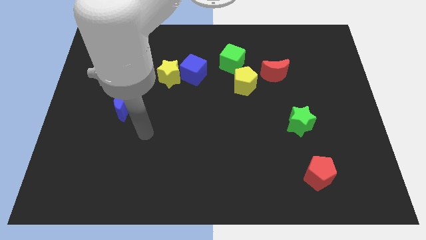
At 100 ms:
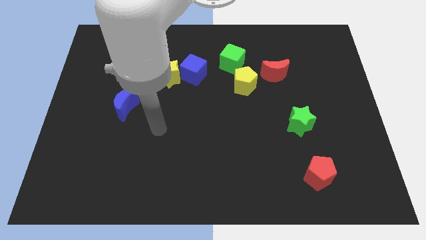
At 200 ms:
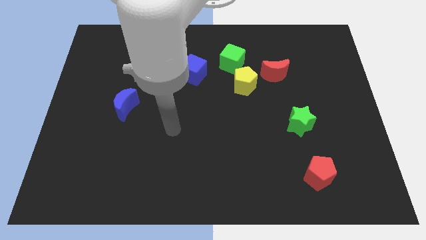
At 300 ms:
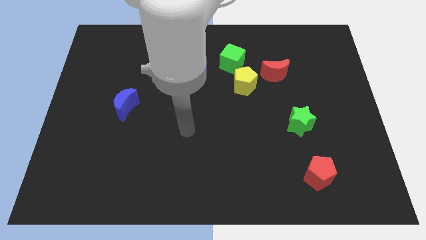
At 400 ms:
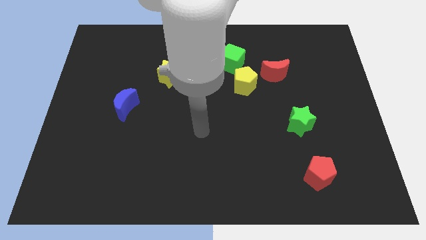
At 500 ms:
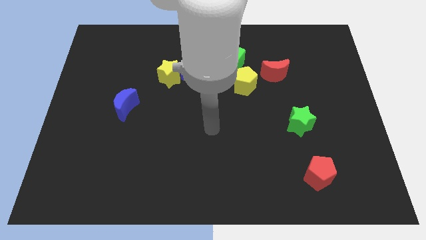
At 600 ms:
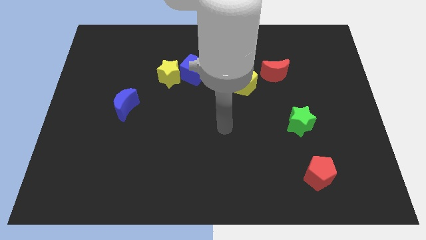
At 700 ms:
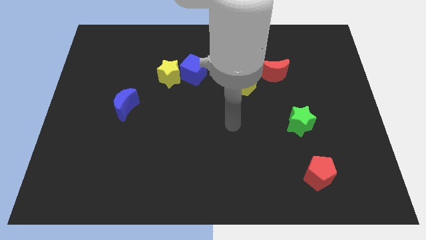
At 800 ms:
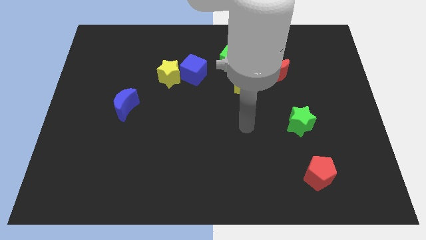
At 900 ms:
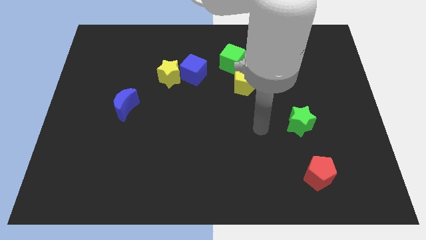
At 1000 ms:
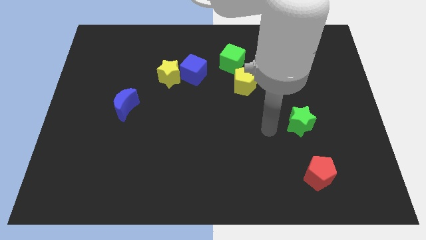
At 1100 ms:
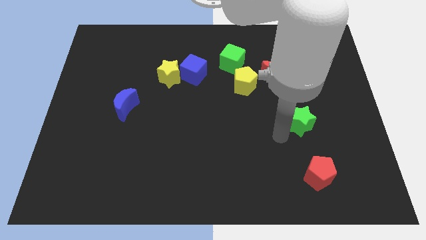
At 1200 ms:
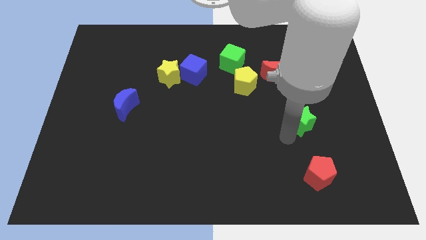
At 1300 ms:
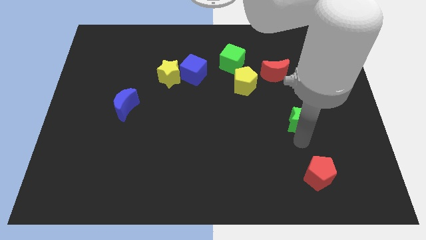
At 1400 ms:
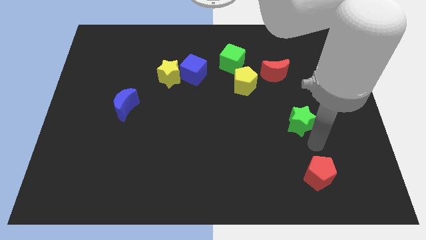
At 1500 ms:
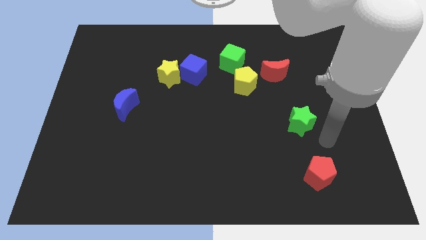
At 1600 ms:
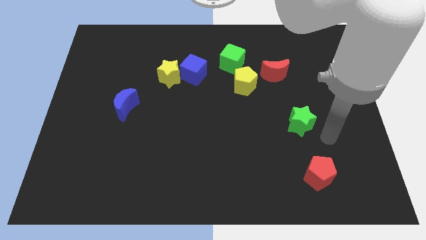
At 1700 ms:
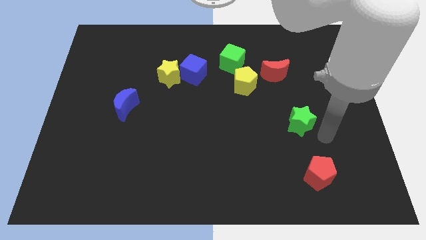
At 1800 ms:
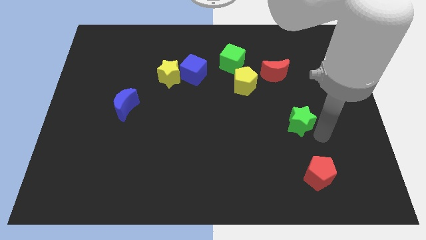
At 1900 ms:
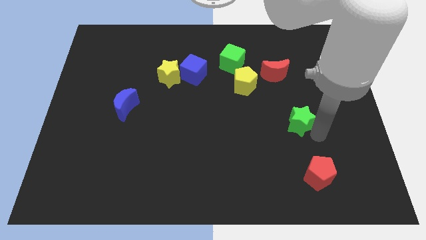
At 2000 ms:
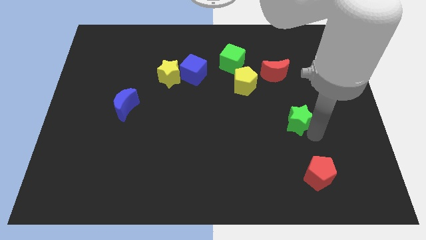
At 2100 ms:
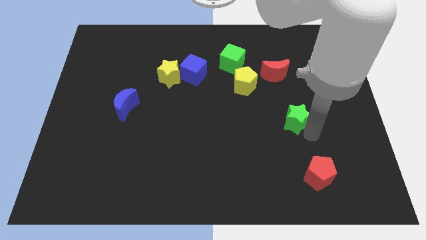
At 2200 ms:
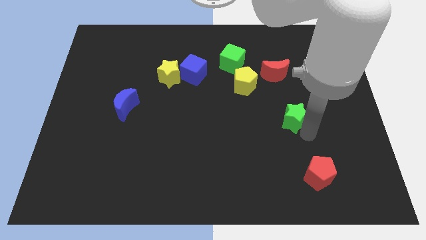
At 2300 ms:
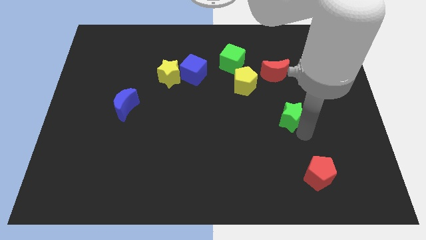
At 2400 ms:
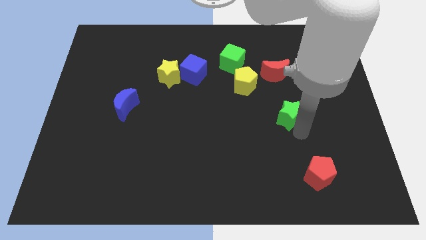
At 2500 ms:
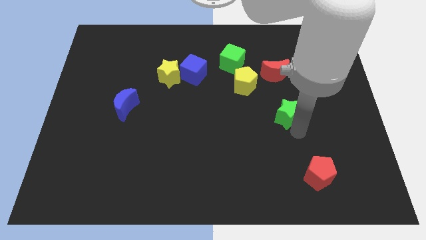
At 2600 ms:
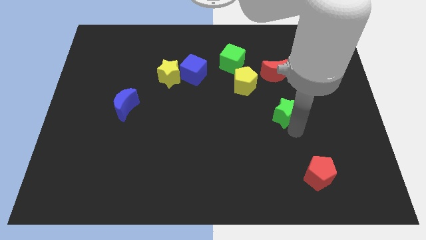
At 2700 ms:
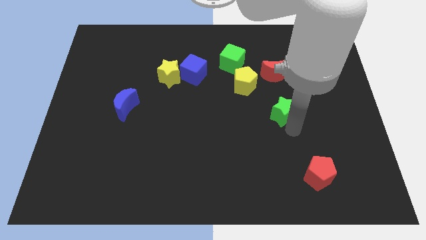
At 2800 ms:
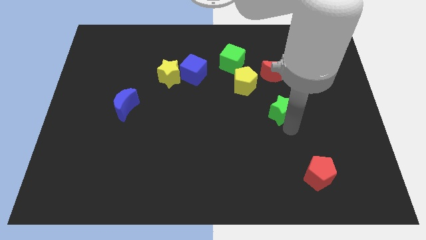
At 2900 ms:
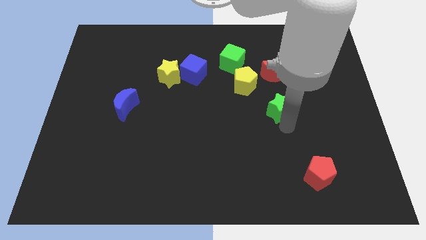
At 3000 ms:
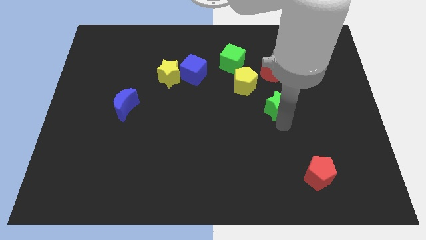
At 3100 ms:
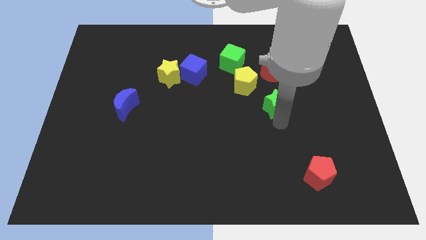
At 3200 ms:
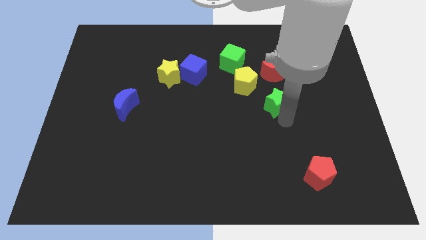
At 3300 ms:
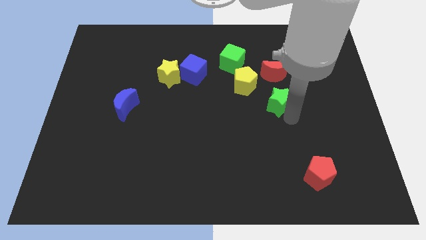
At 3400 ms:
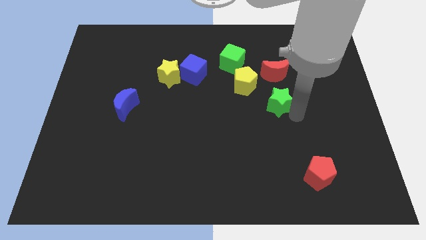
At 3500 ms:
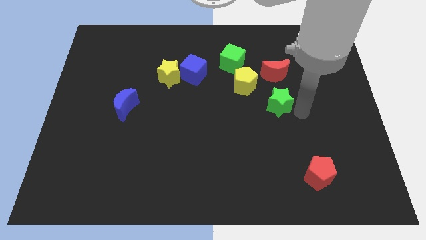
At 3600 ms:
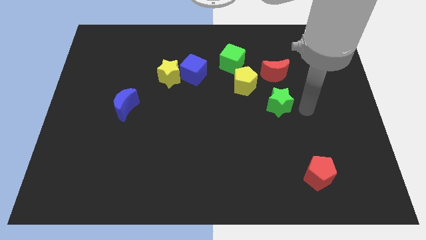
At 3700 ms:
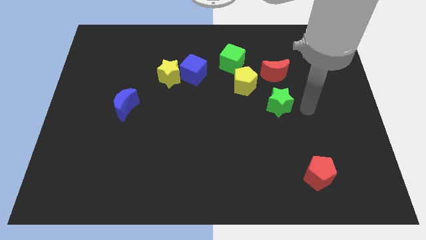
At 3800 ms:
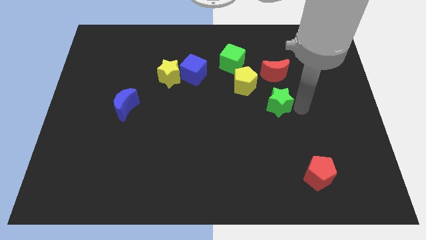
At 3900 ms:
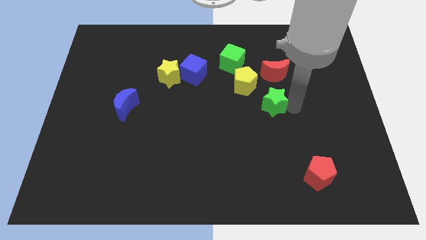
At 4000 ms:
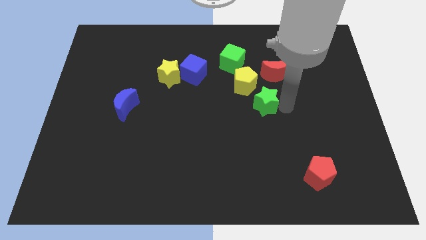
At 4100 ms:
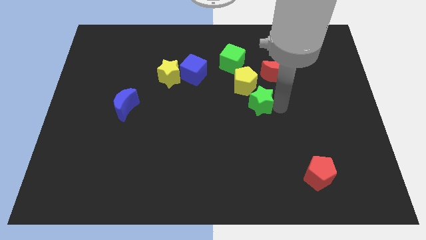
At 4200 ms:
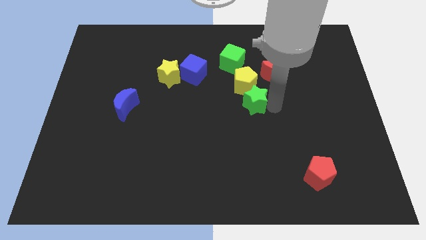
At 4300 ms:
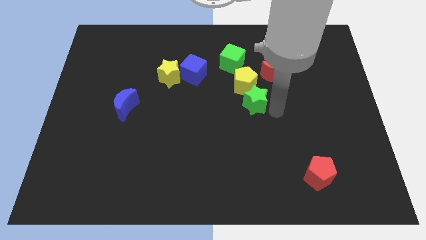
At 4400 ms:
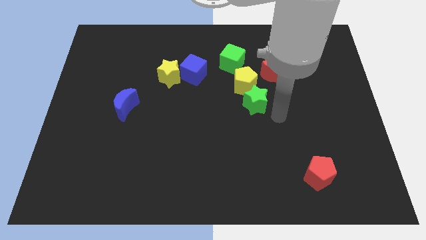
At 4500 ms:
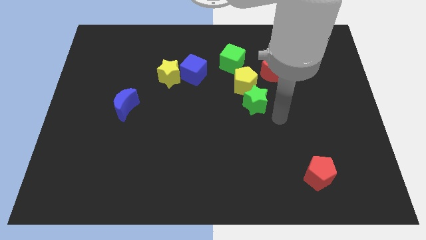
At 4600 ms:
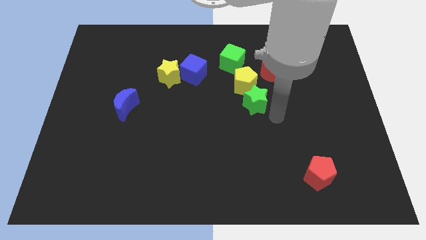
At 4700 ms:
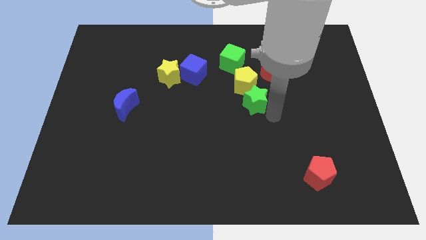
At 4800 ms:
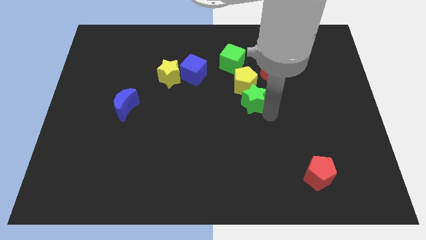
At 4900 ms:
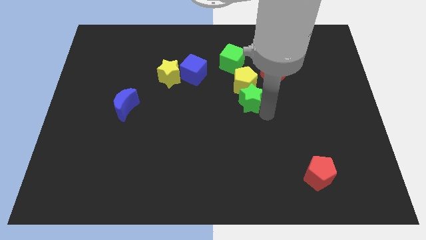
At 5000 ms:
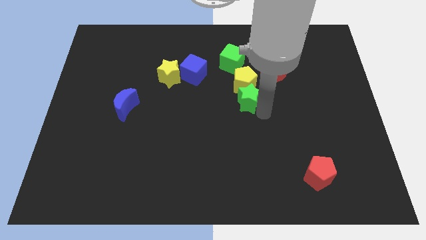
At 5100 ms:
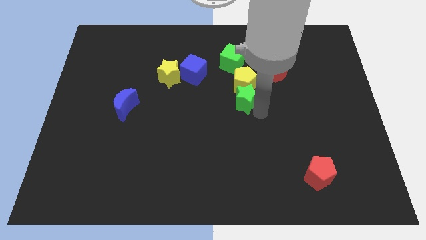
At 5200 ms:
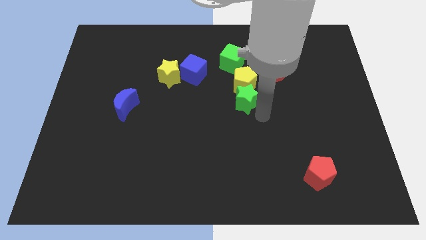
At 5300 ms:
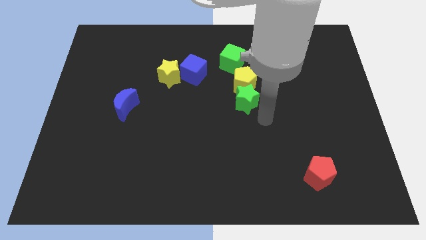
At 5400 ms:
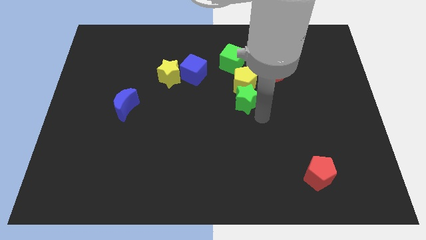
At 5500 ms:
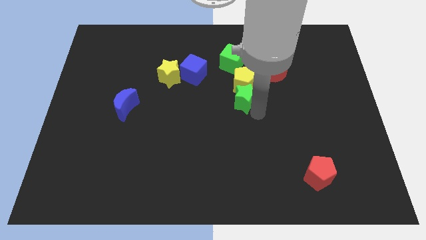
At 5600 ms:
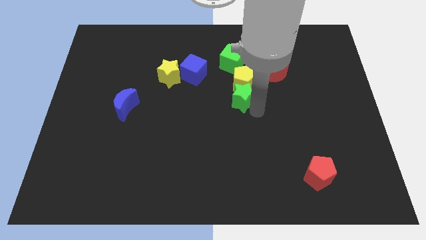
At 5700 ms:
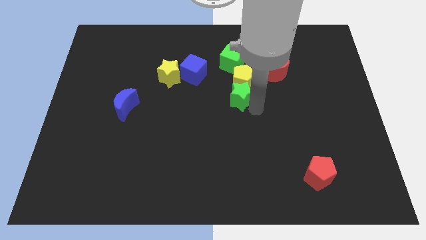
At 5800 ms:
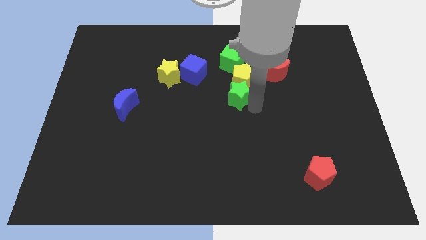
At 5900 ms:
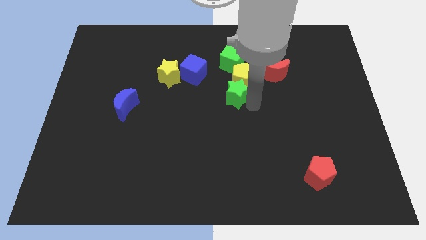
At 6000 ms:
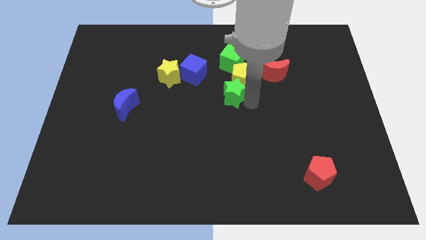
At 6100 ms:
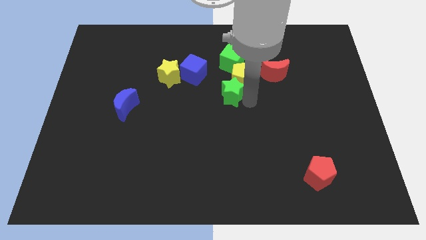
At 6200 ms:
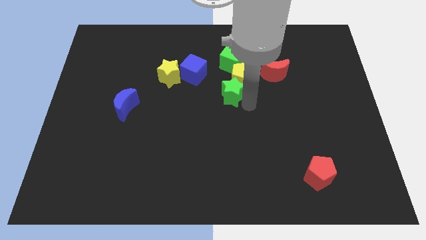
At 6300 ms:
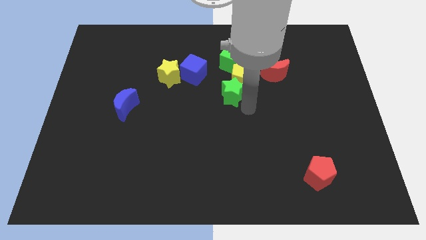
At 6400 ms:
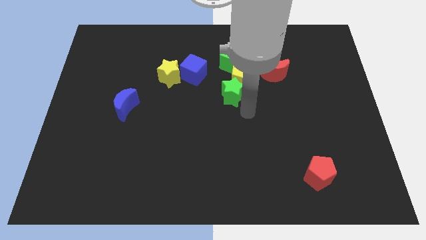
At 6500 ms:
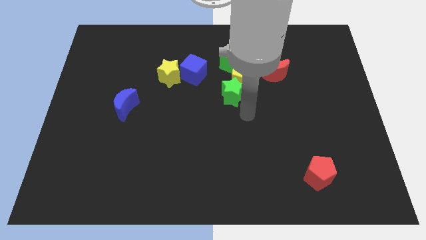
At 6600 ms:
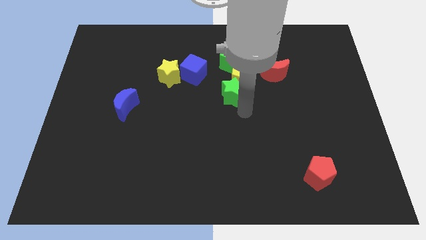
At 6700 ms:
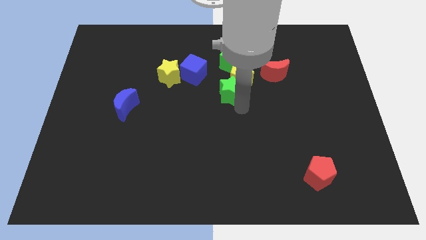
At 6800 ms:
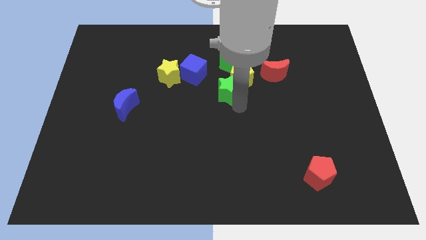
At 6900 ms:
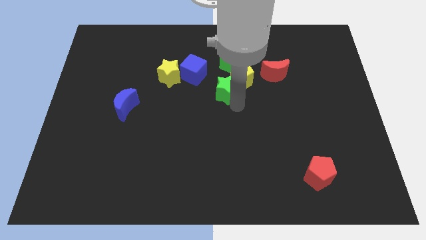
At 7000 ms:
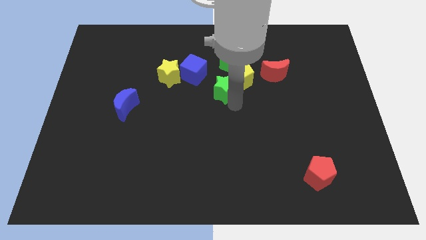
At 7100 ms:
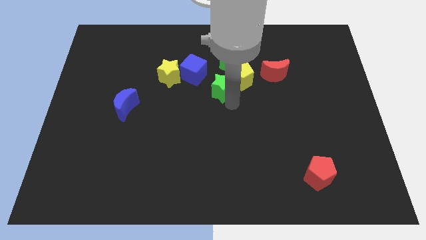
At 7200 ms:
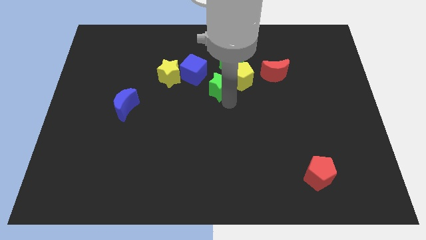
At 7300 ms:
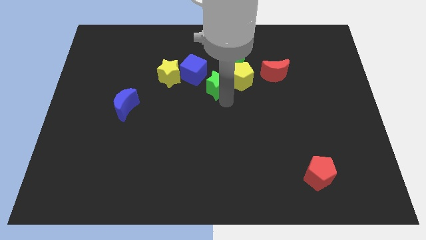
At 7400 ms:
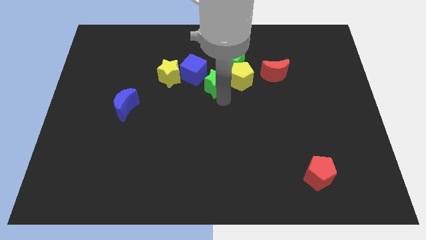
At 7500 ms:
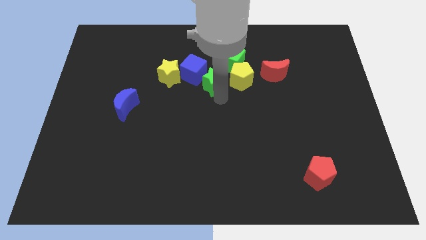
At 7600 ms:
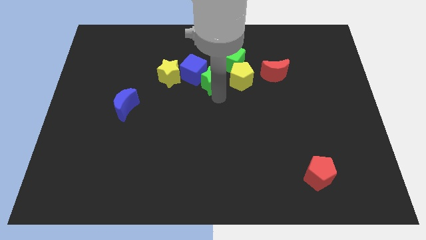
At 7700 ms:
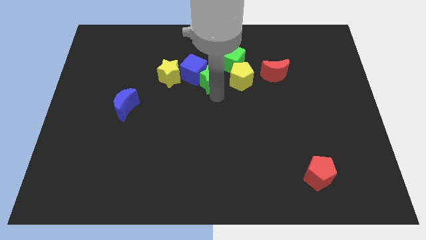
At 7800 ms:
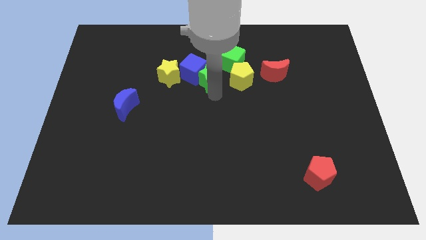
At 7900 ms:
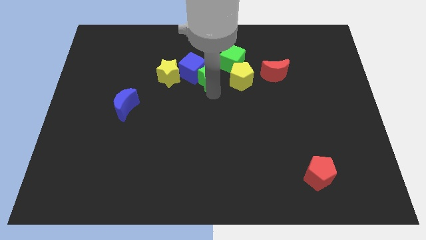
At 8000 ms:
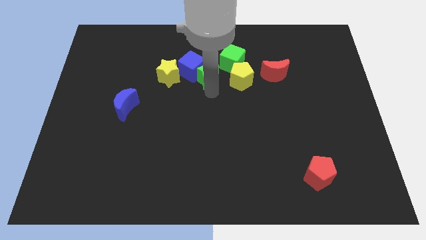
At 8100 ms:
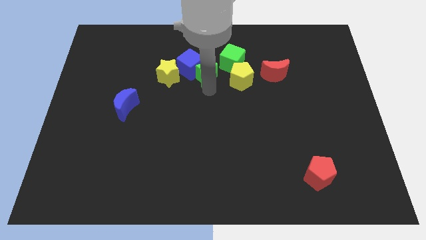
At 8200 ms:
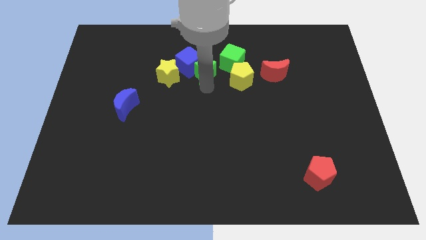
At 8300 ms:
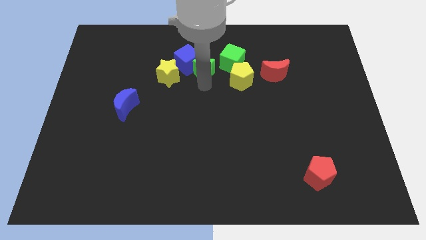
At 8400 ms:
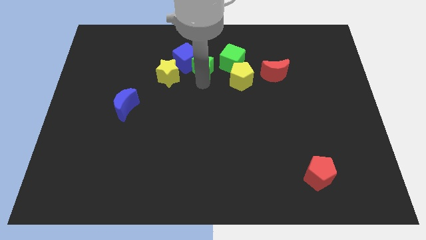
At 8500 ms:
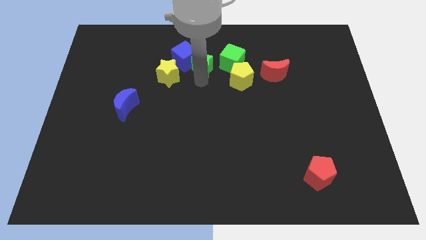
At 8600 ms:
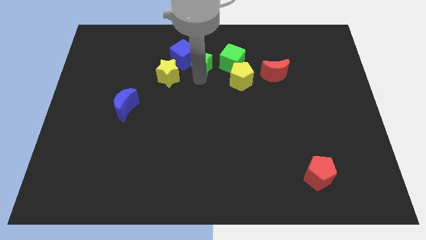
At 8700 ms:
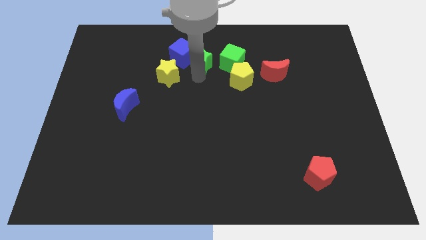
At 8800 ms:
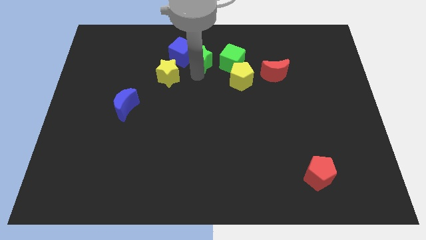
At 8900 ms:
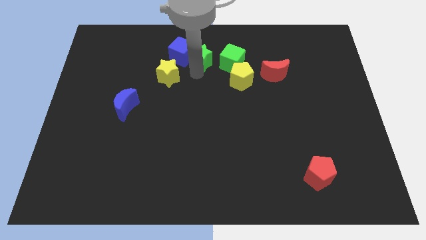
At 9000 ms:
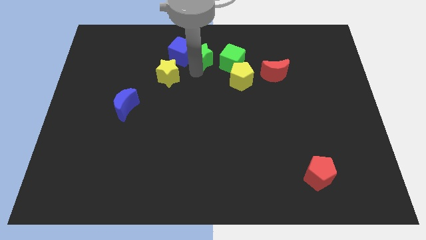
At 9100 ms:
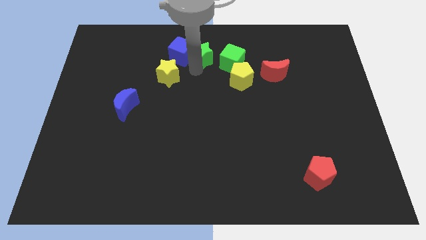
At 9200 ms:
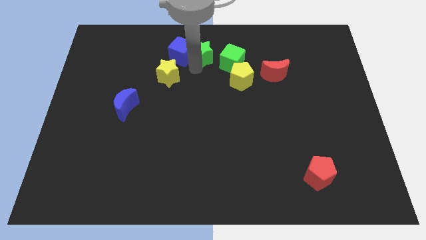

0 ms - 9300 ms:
push the green star to the towards your base
